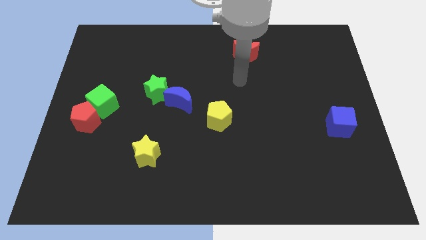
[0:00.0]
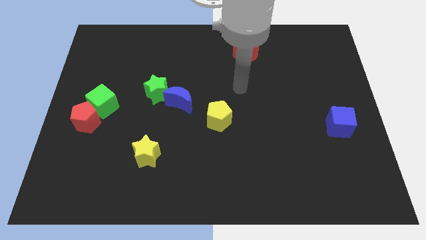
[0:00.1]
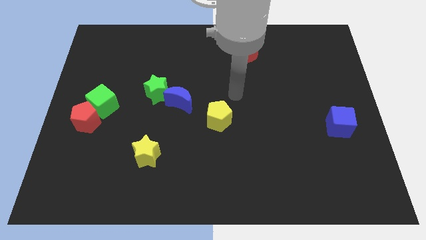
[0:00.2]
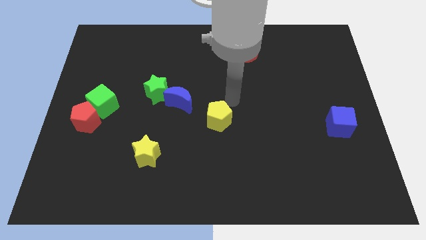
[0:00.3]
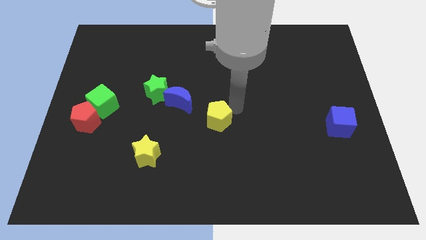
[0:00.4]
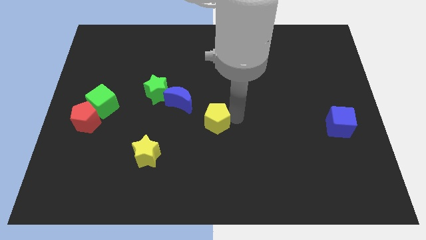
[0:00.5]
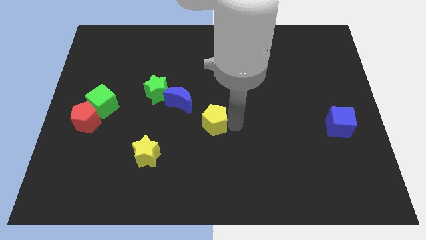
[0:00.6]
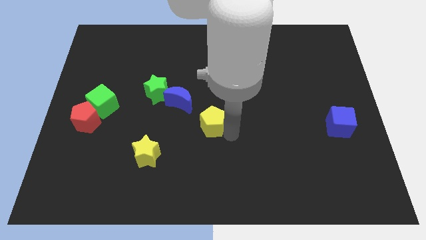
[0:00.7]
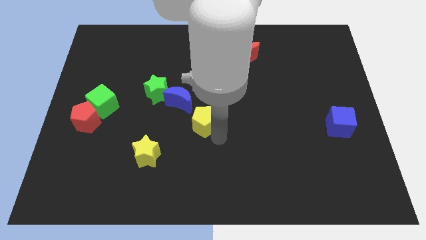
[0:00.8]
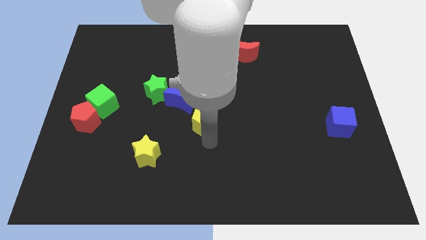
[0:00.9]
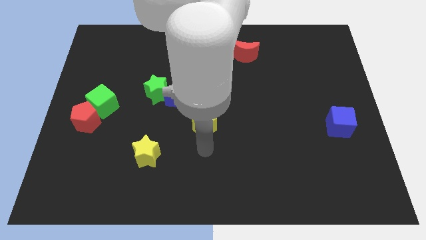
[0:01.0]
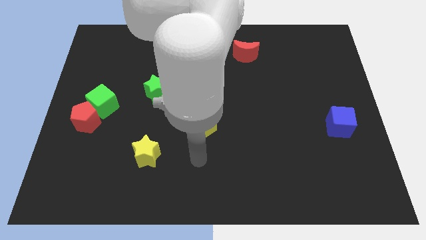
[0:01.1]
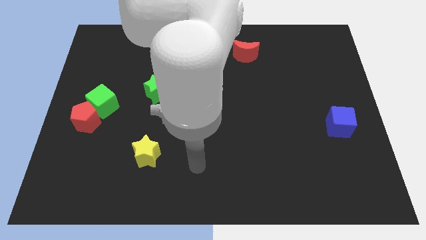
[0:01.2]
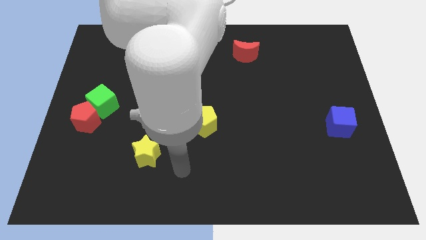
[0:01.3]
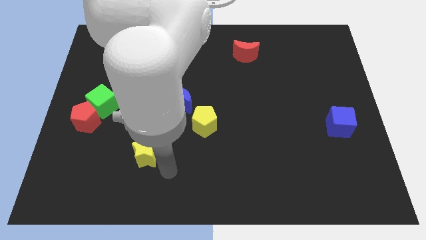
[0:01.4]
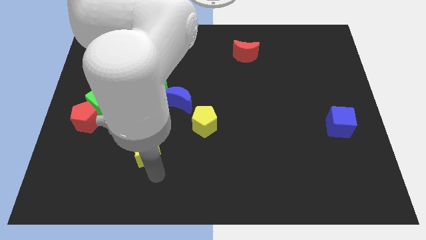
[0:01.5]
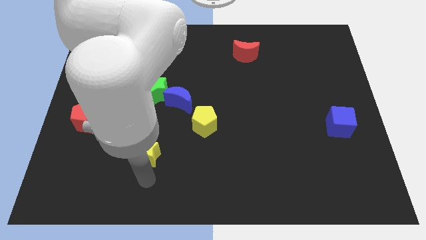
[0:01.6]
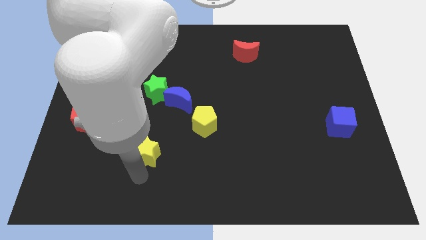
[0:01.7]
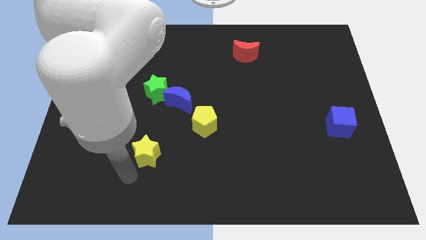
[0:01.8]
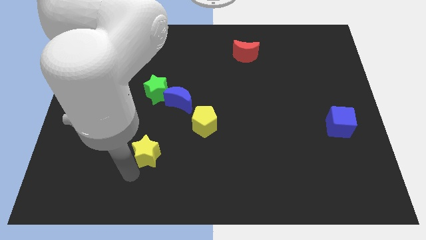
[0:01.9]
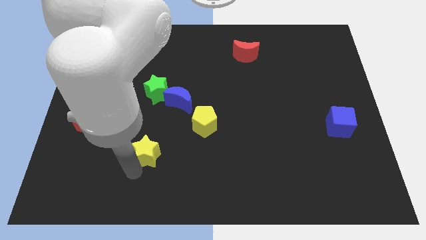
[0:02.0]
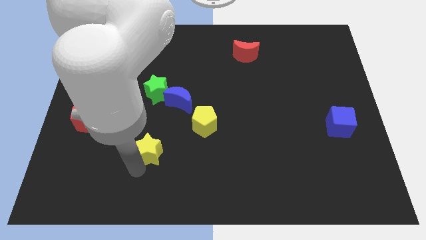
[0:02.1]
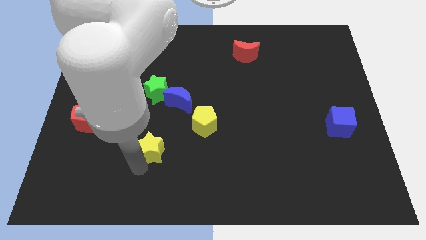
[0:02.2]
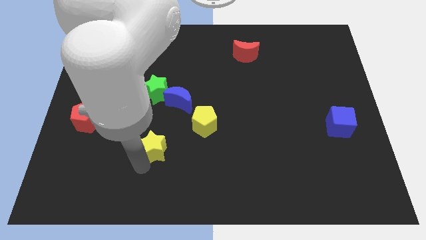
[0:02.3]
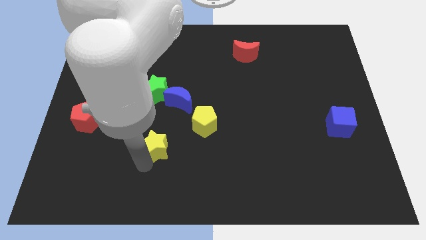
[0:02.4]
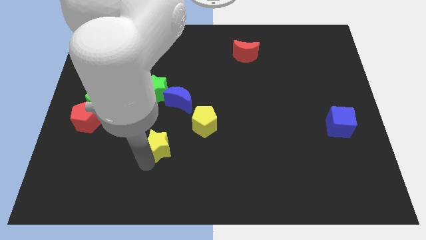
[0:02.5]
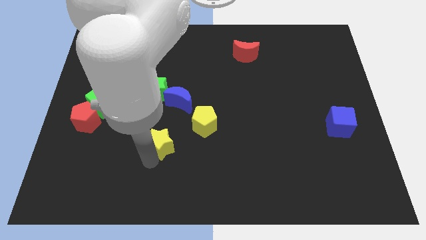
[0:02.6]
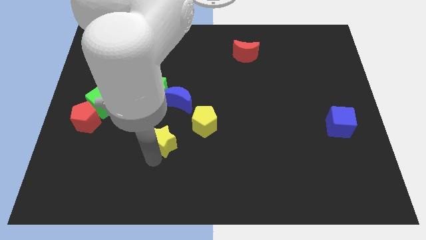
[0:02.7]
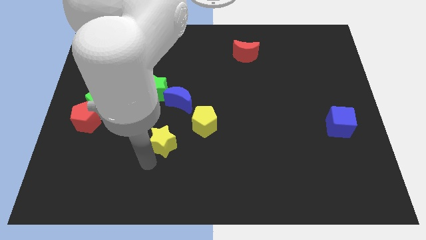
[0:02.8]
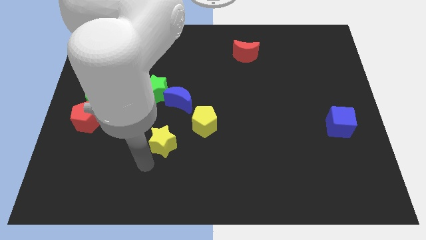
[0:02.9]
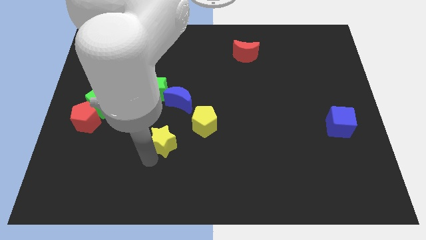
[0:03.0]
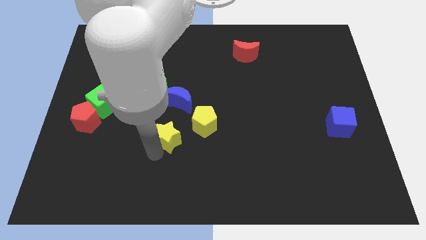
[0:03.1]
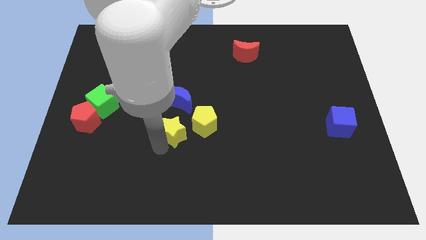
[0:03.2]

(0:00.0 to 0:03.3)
slide the yellow star a bit upwards and right

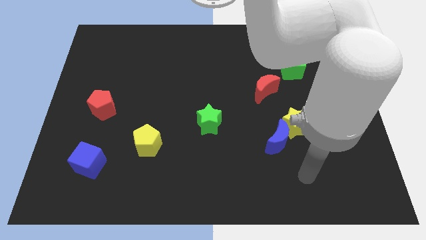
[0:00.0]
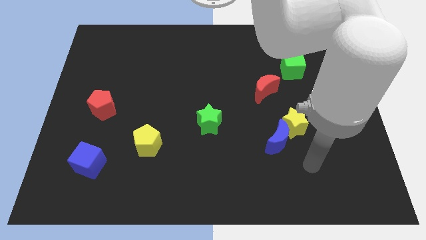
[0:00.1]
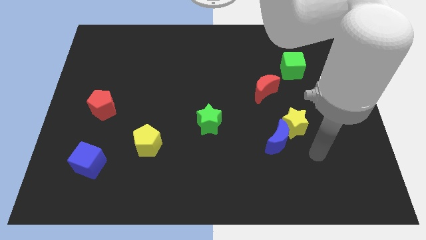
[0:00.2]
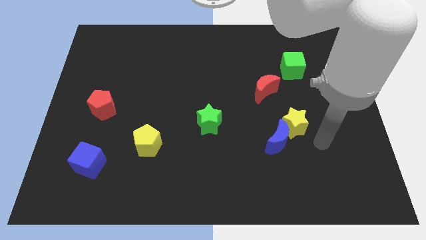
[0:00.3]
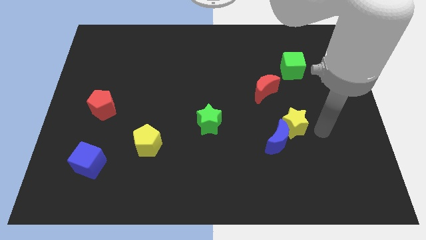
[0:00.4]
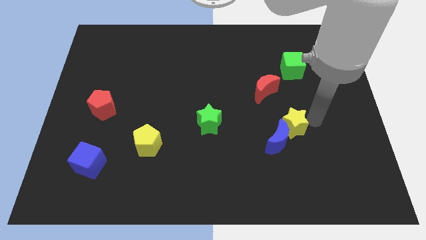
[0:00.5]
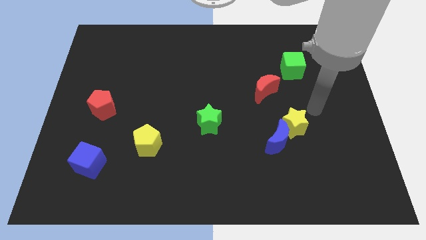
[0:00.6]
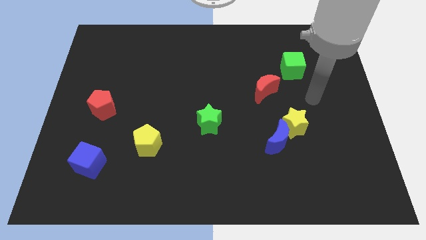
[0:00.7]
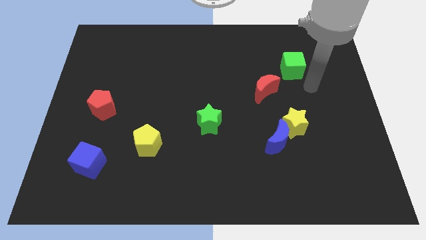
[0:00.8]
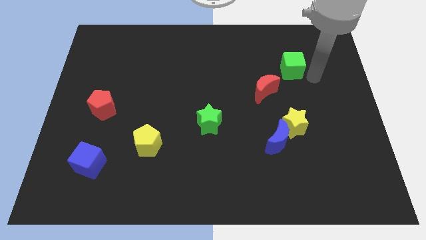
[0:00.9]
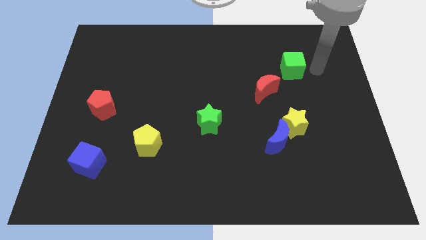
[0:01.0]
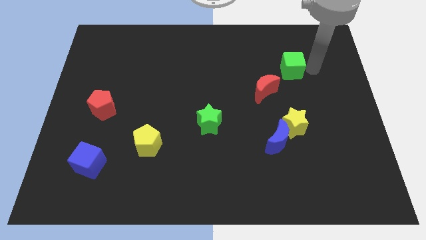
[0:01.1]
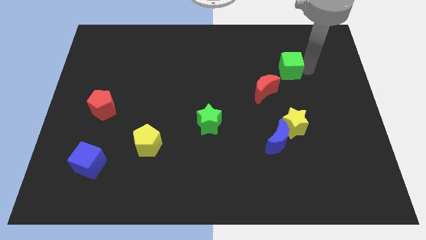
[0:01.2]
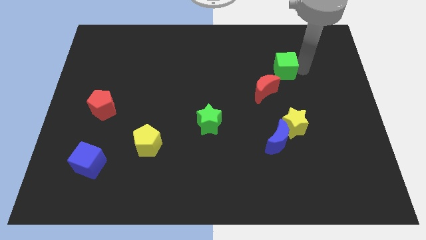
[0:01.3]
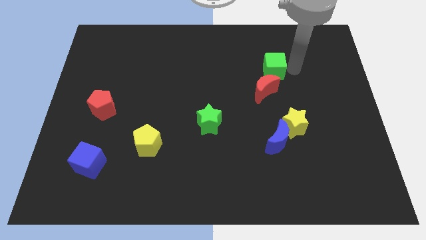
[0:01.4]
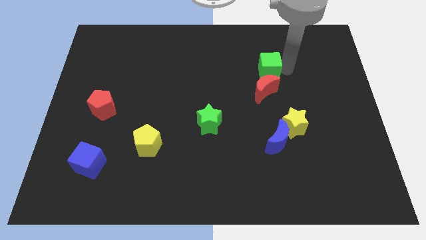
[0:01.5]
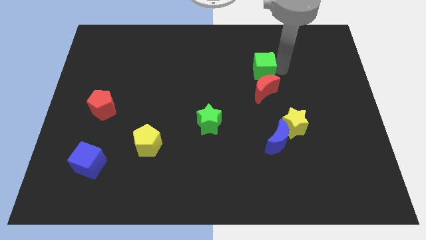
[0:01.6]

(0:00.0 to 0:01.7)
push the green cube left slightly

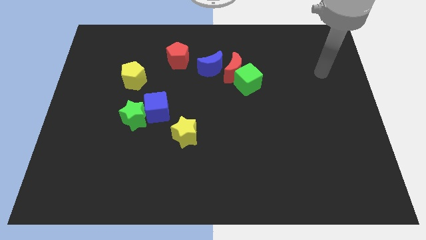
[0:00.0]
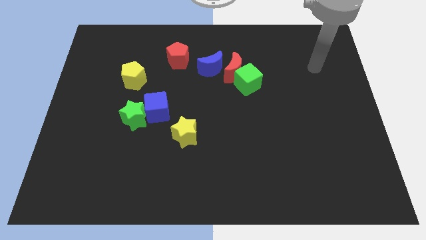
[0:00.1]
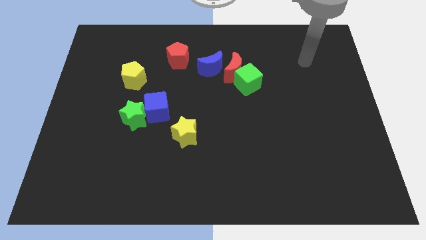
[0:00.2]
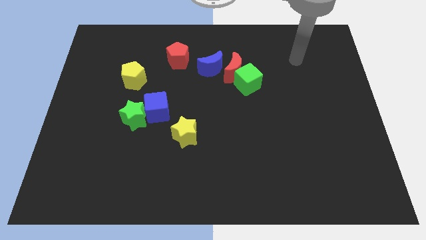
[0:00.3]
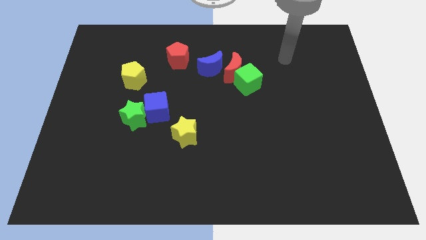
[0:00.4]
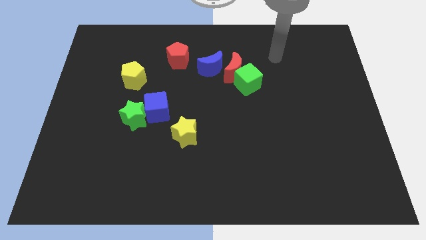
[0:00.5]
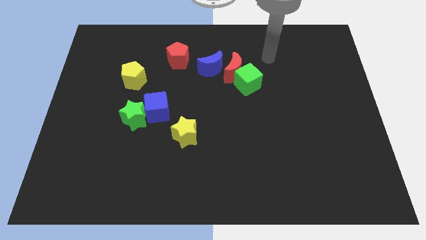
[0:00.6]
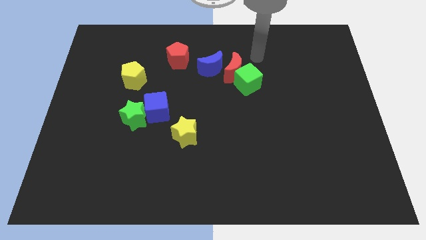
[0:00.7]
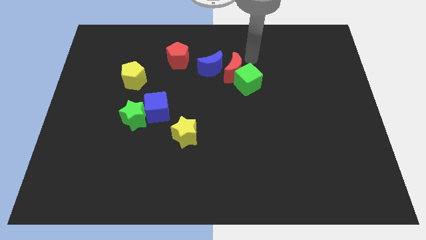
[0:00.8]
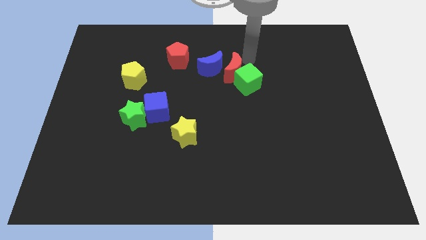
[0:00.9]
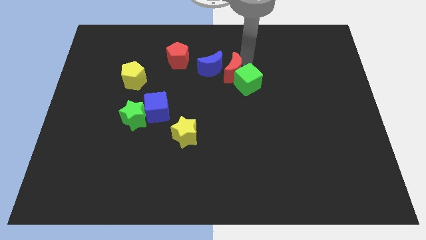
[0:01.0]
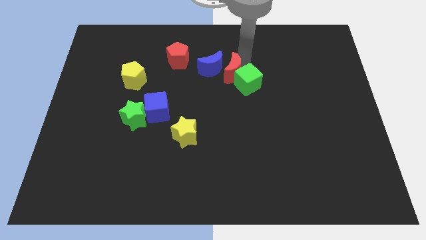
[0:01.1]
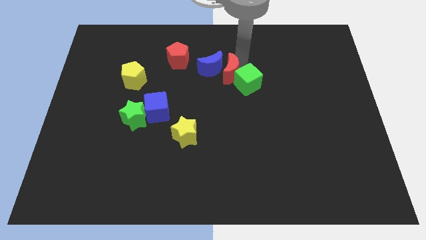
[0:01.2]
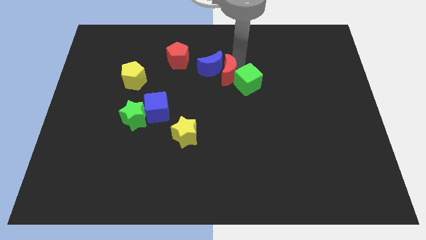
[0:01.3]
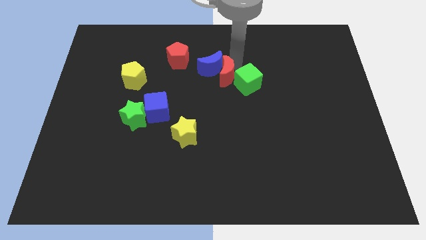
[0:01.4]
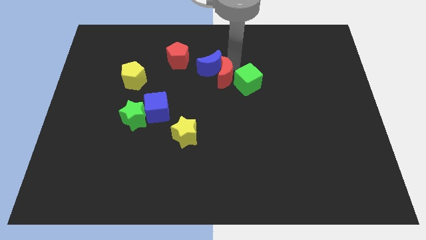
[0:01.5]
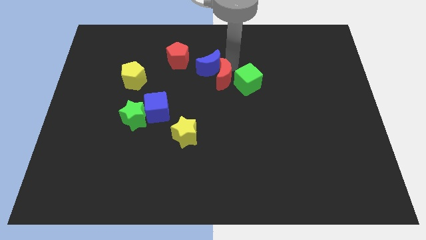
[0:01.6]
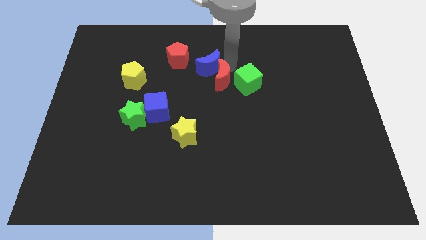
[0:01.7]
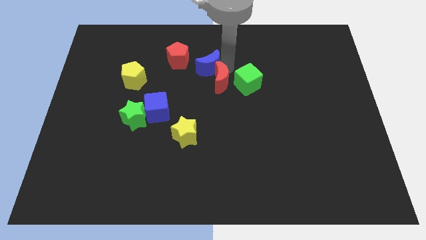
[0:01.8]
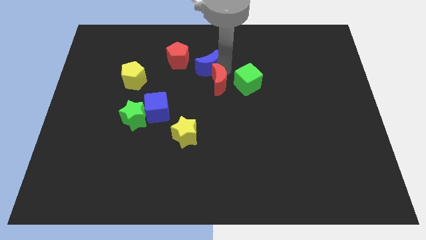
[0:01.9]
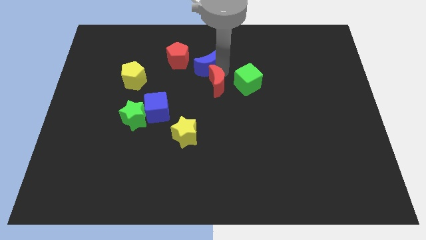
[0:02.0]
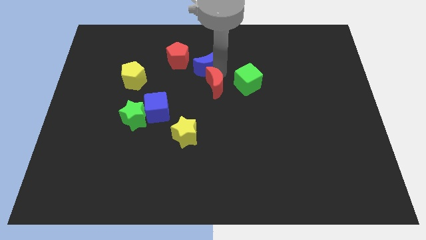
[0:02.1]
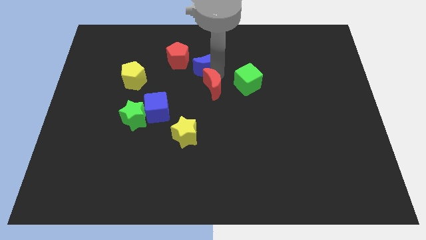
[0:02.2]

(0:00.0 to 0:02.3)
push the red moon a little diagonally down and to the left

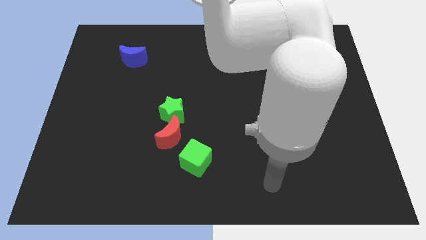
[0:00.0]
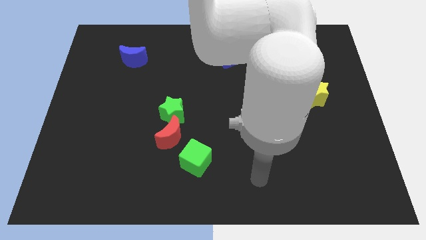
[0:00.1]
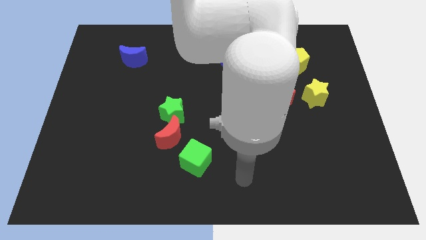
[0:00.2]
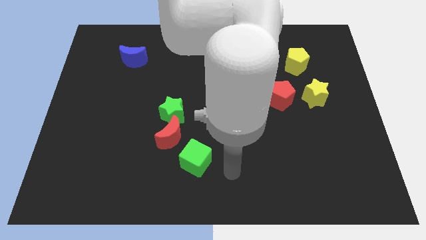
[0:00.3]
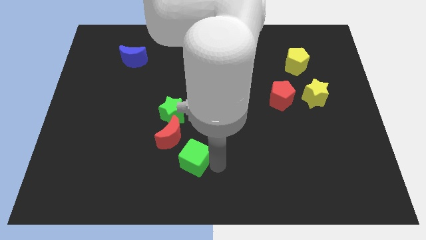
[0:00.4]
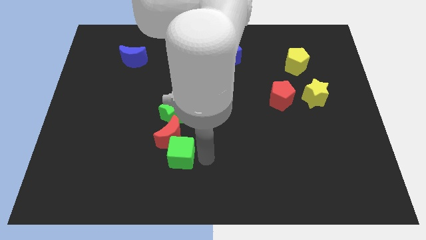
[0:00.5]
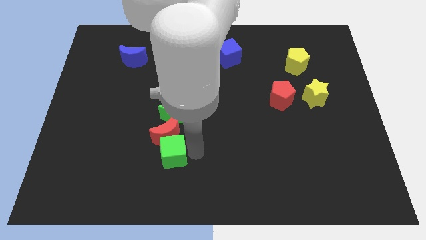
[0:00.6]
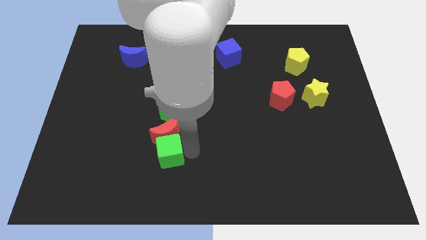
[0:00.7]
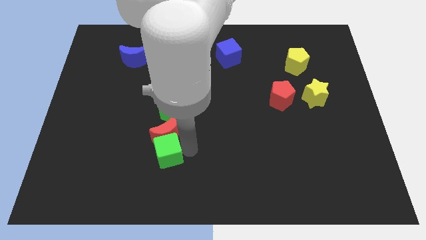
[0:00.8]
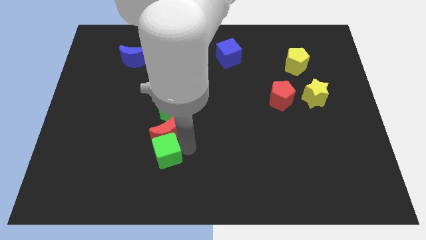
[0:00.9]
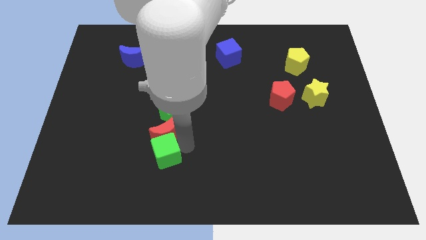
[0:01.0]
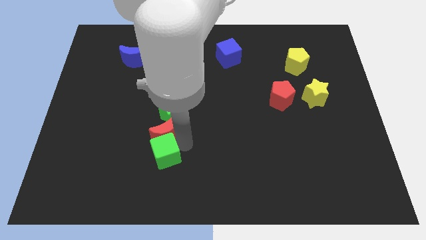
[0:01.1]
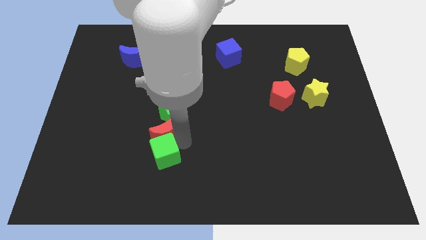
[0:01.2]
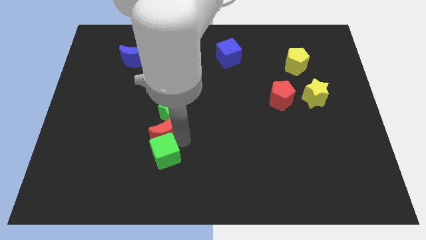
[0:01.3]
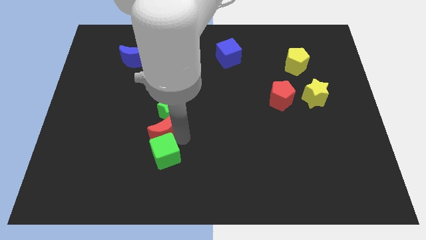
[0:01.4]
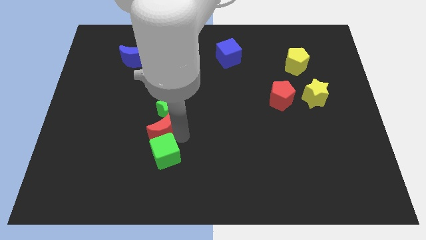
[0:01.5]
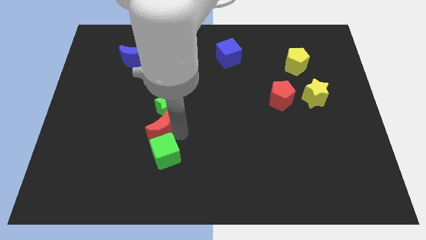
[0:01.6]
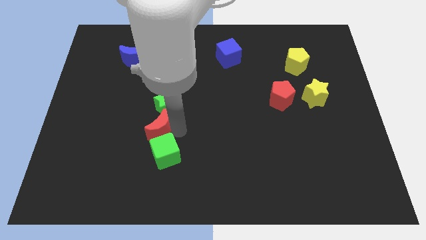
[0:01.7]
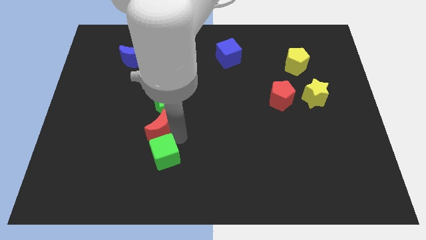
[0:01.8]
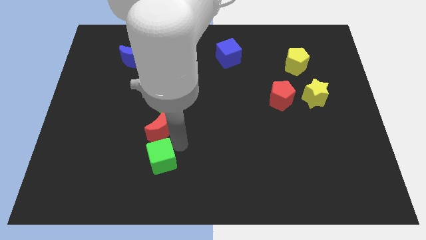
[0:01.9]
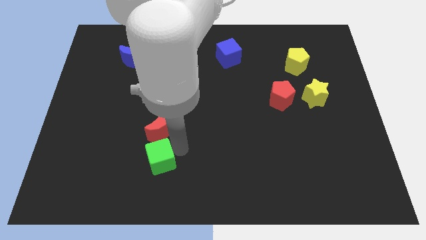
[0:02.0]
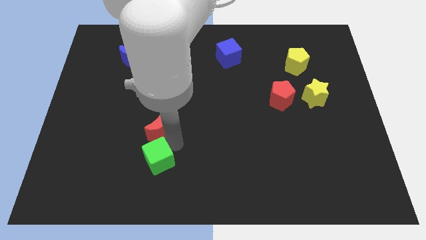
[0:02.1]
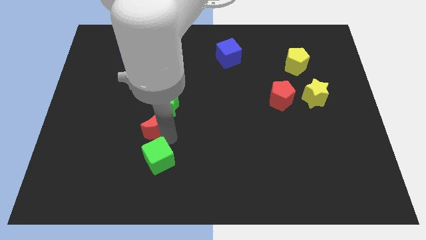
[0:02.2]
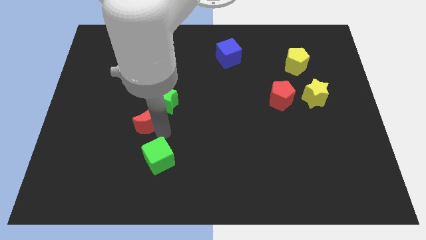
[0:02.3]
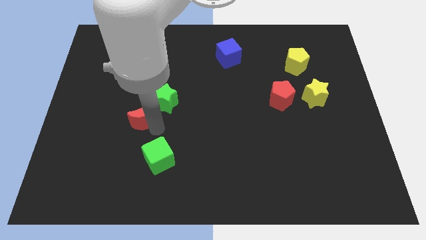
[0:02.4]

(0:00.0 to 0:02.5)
move the red moon upwards and left slightly
